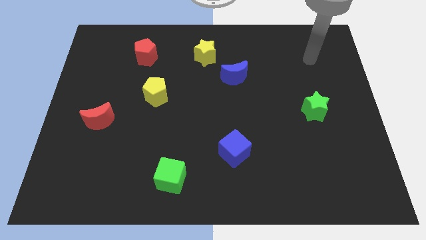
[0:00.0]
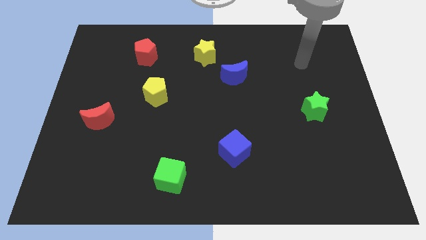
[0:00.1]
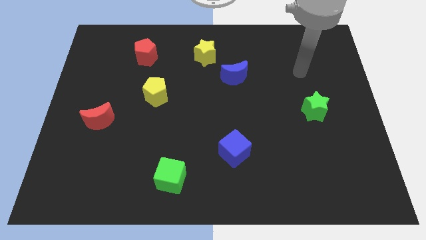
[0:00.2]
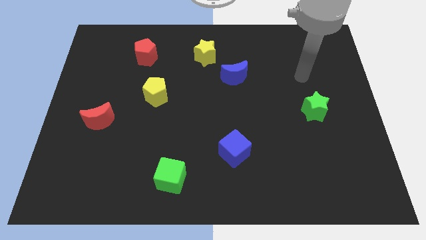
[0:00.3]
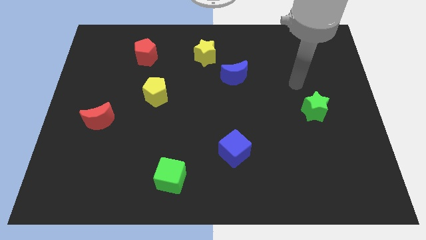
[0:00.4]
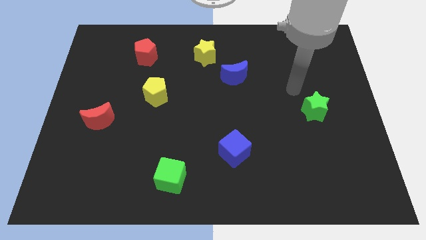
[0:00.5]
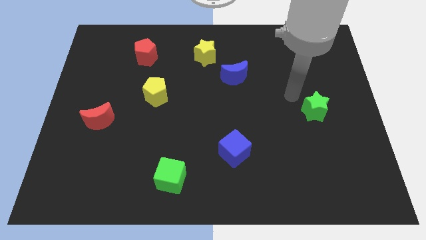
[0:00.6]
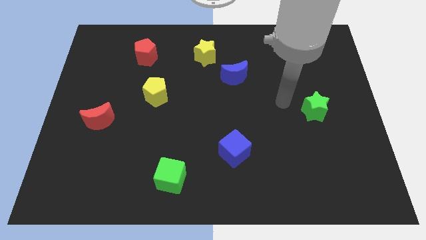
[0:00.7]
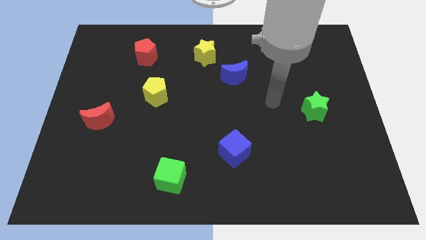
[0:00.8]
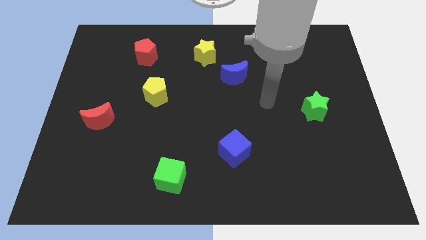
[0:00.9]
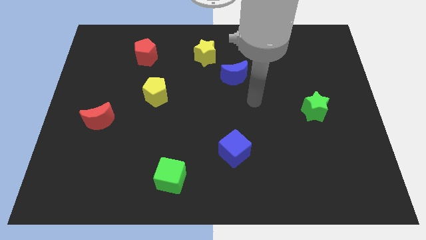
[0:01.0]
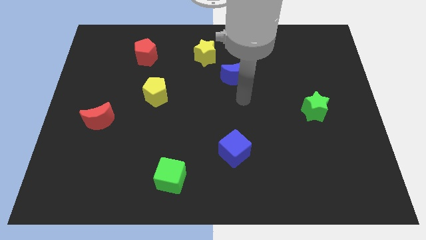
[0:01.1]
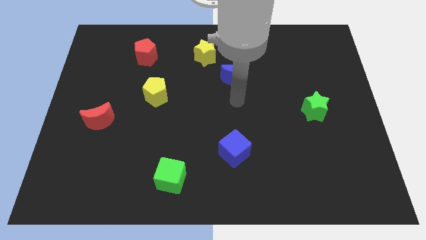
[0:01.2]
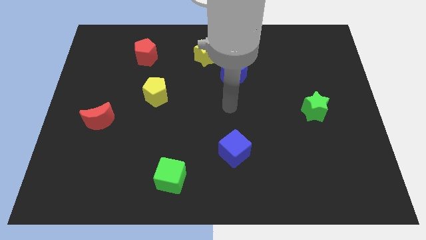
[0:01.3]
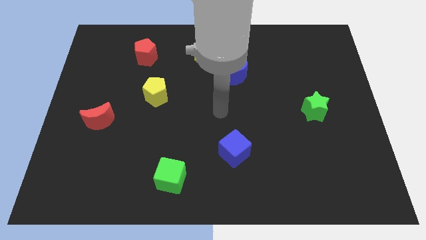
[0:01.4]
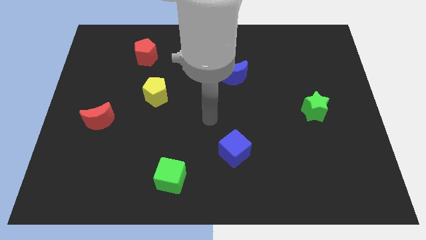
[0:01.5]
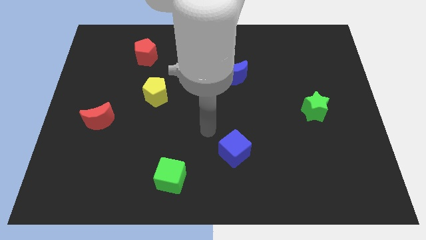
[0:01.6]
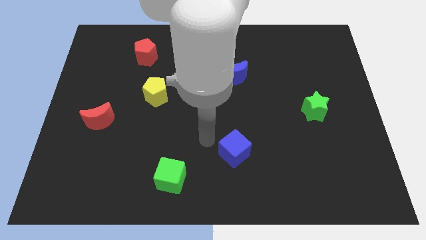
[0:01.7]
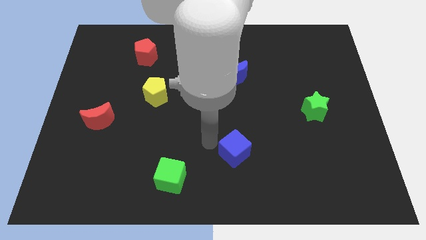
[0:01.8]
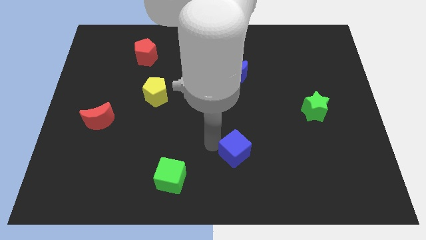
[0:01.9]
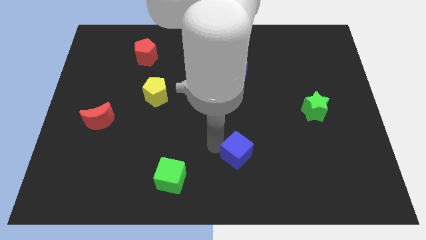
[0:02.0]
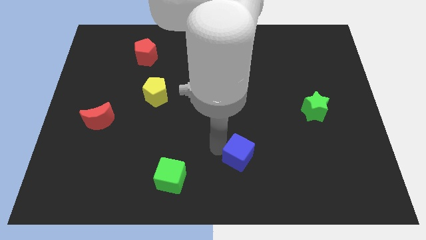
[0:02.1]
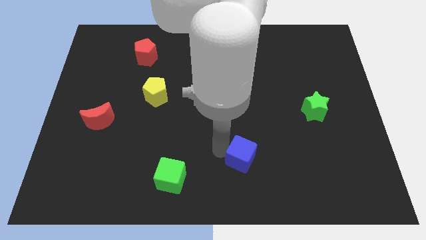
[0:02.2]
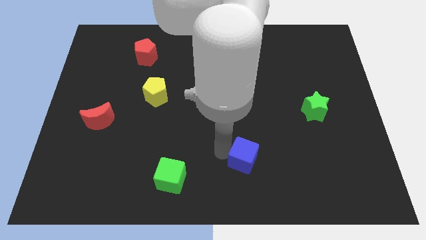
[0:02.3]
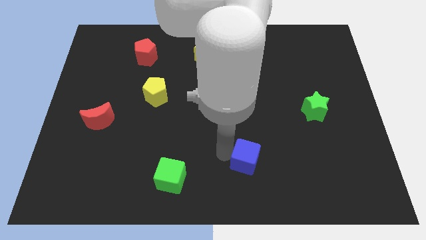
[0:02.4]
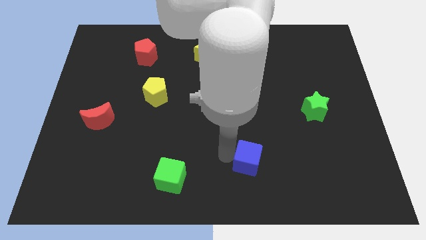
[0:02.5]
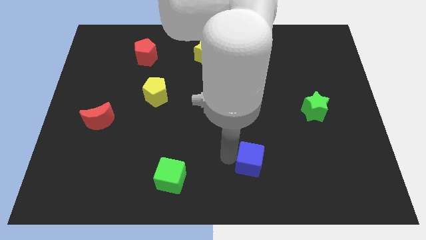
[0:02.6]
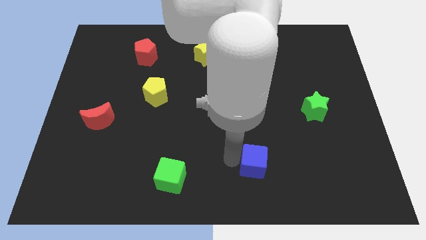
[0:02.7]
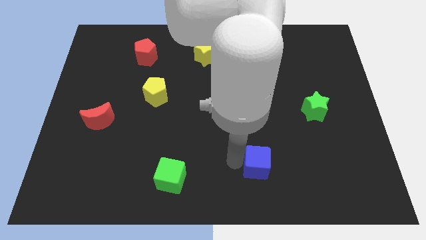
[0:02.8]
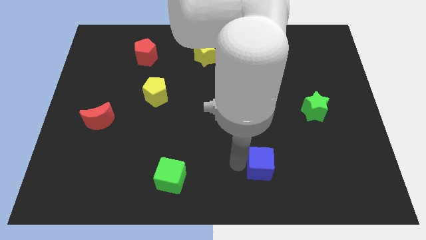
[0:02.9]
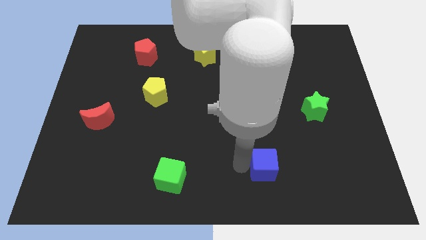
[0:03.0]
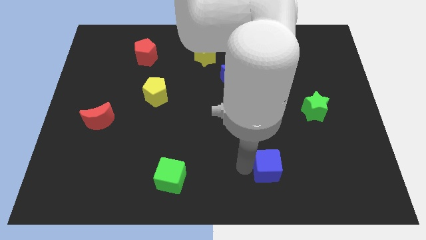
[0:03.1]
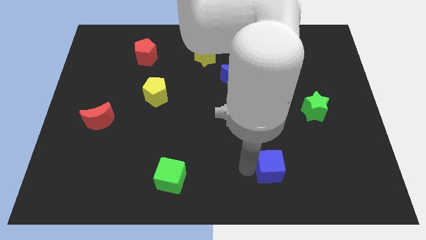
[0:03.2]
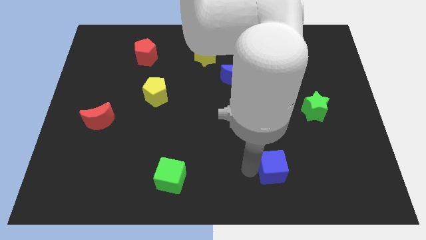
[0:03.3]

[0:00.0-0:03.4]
slightly push the blue cube right

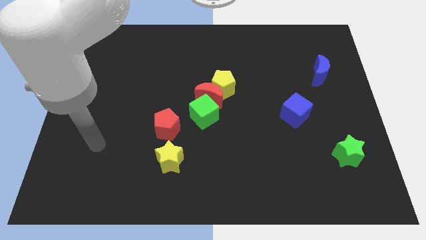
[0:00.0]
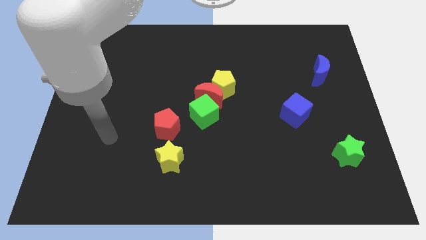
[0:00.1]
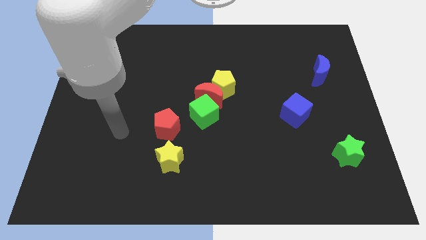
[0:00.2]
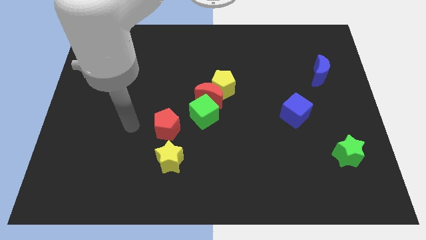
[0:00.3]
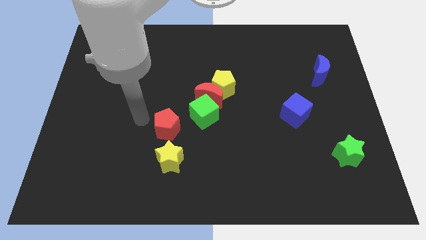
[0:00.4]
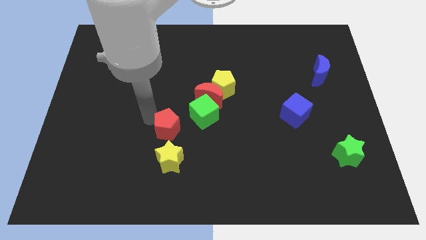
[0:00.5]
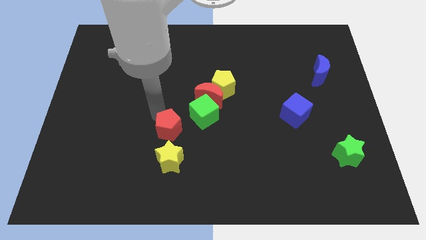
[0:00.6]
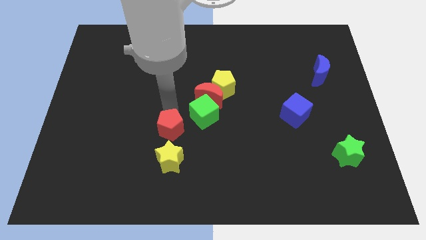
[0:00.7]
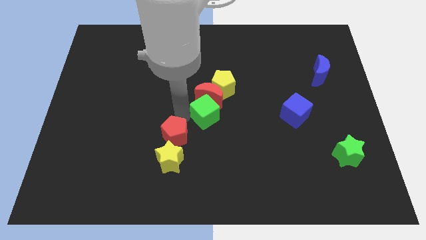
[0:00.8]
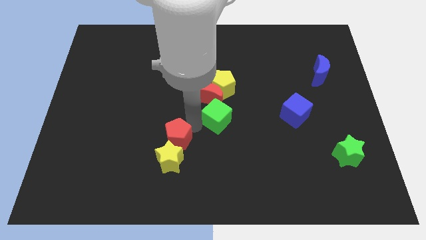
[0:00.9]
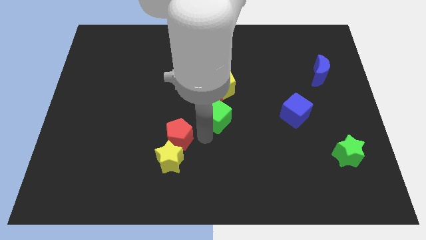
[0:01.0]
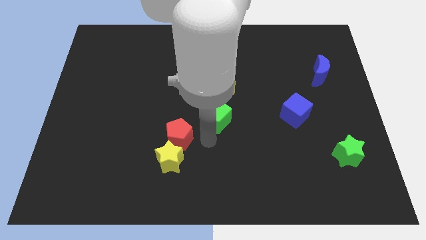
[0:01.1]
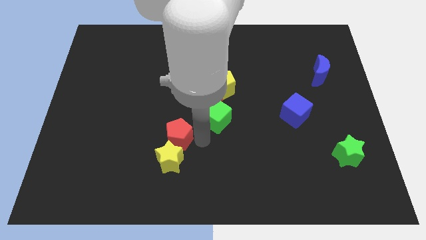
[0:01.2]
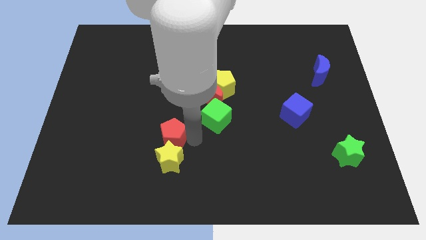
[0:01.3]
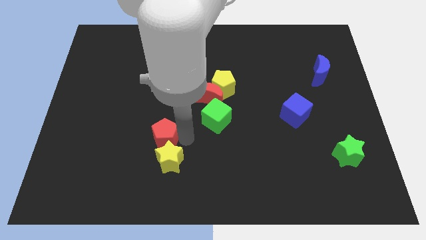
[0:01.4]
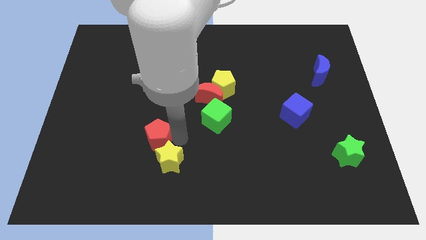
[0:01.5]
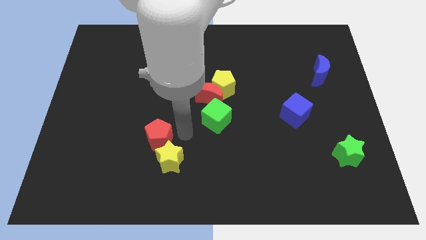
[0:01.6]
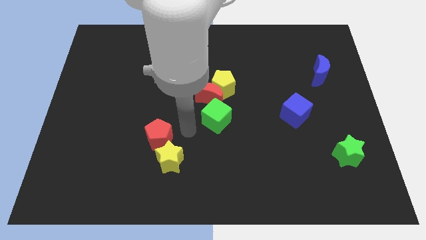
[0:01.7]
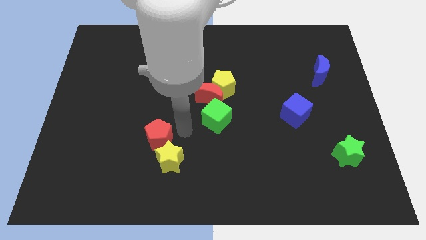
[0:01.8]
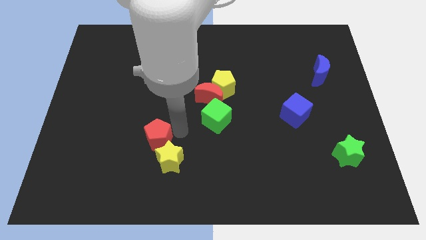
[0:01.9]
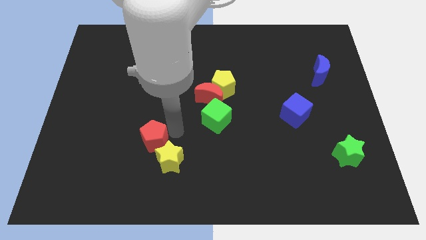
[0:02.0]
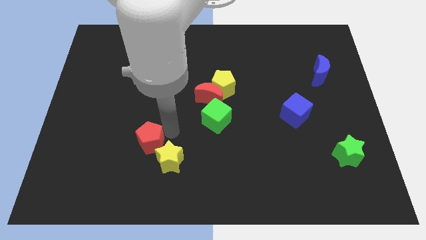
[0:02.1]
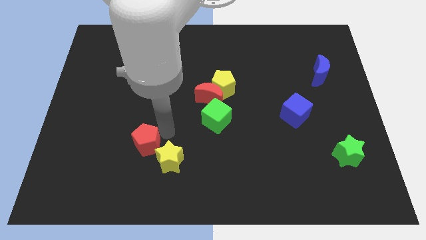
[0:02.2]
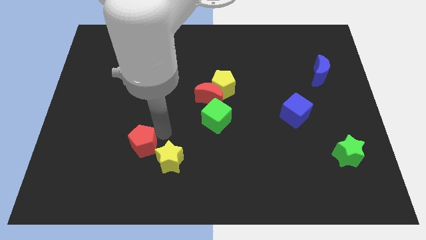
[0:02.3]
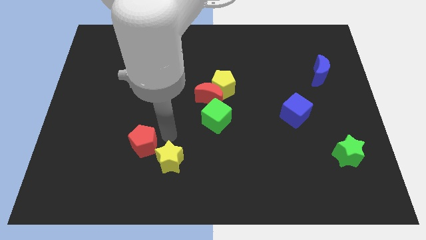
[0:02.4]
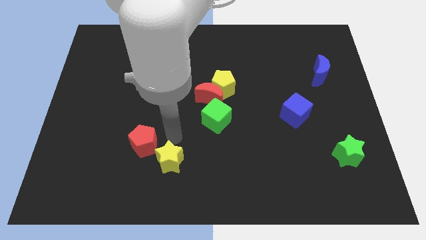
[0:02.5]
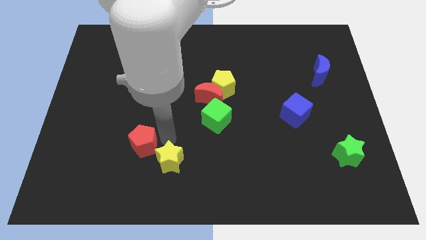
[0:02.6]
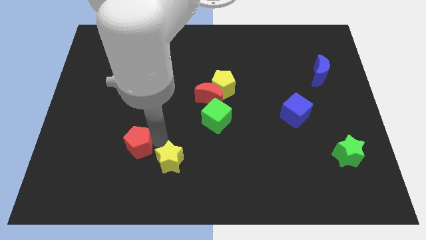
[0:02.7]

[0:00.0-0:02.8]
slightly slide the red pentagon downwards and then to the left

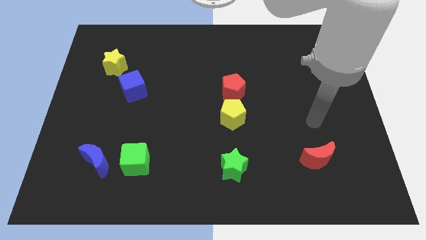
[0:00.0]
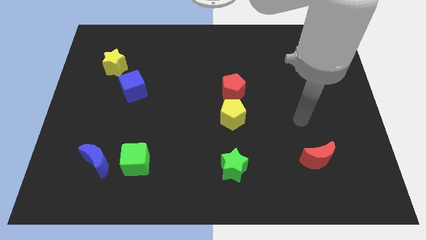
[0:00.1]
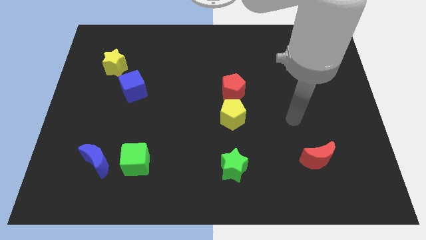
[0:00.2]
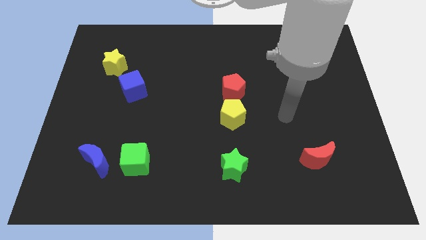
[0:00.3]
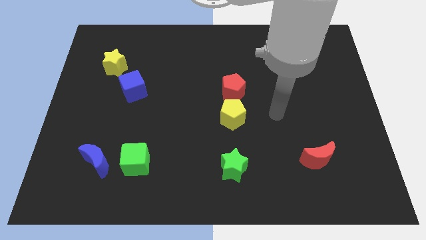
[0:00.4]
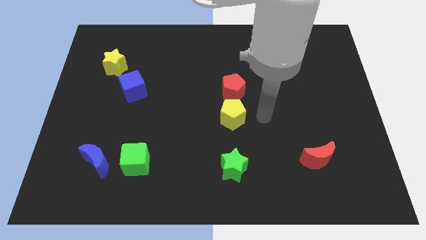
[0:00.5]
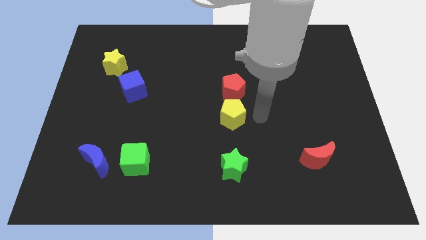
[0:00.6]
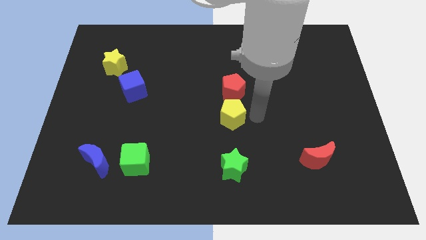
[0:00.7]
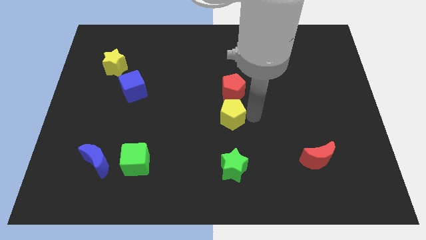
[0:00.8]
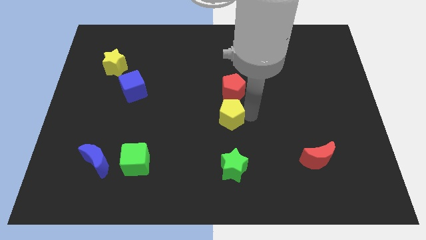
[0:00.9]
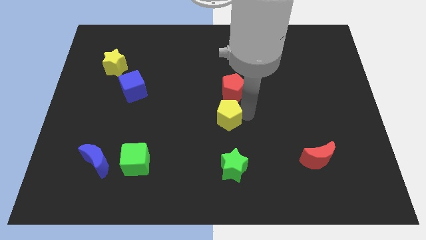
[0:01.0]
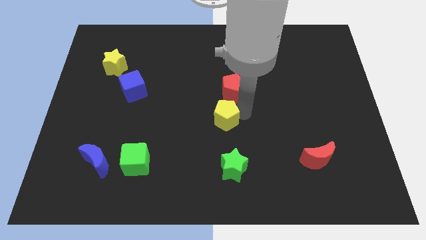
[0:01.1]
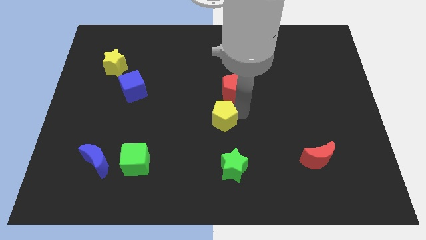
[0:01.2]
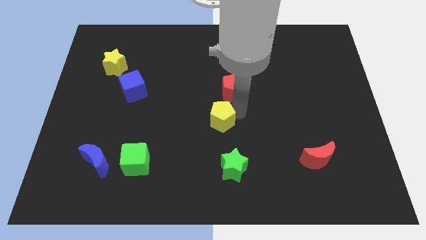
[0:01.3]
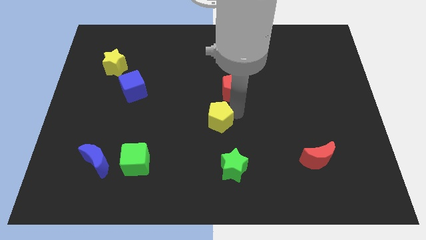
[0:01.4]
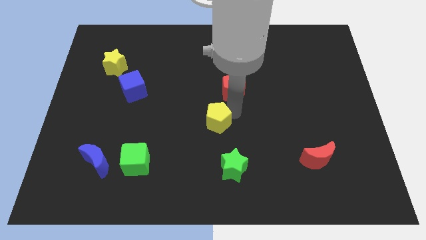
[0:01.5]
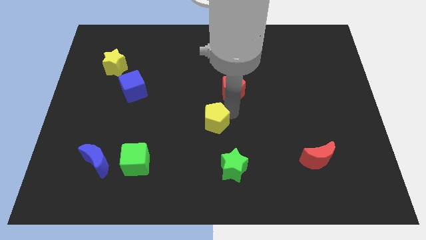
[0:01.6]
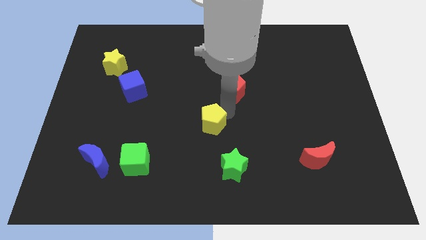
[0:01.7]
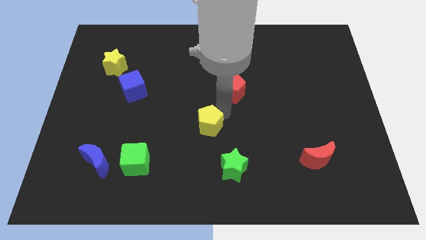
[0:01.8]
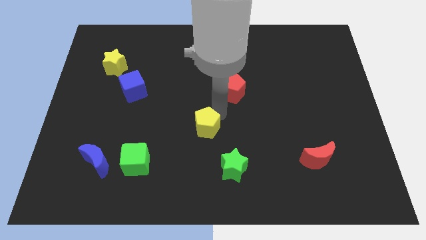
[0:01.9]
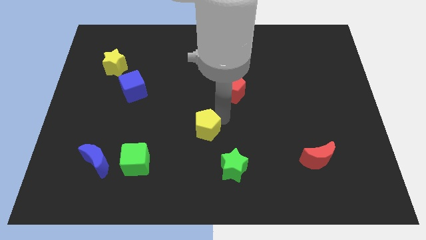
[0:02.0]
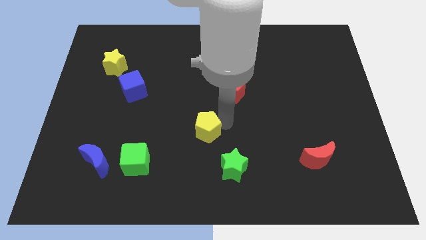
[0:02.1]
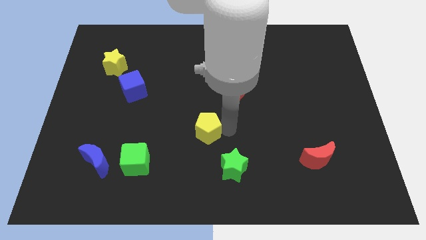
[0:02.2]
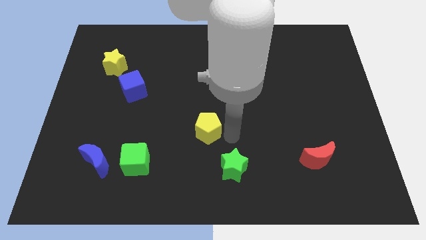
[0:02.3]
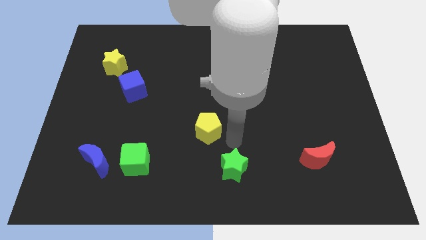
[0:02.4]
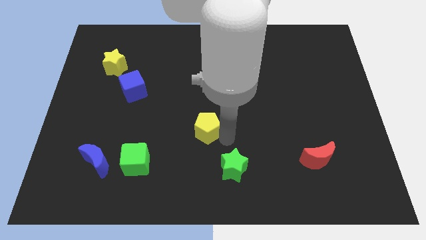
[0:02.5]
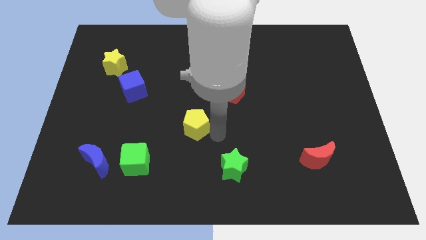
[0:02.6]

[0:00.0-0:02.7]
slide the yellow pentagon to the left a bit
